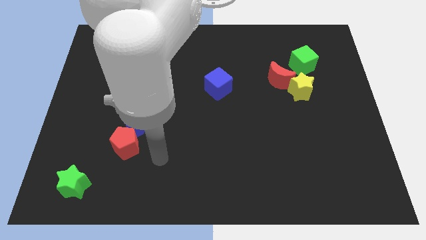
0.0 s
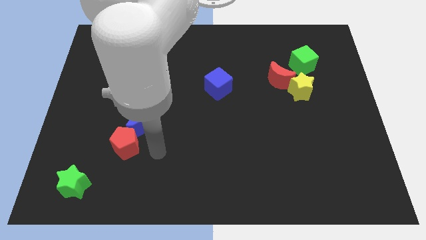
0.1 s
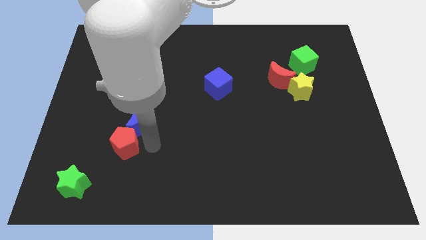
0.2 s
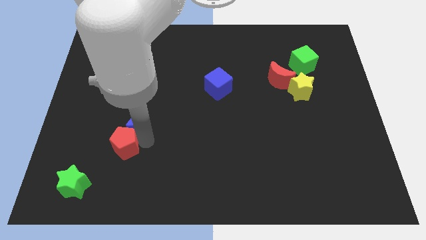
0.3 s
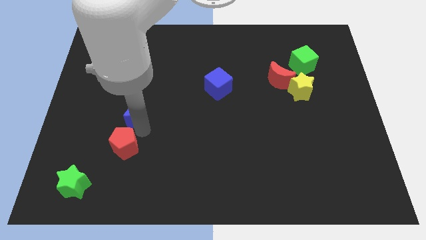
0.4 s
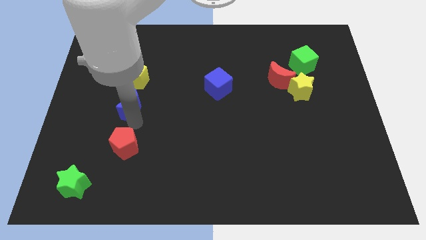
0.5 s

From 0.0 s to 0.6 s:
separate the red pentagon from the blue moon

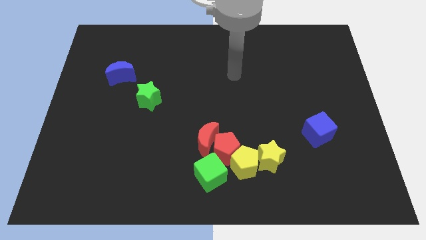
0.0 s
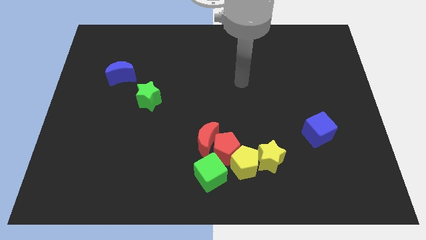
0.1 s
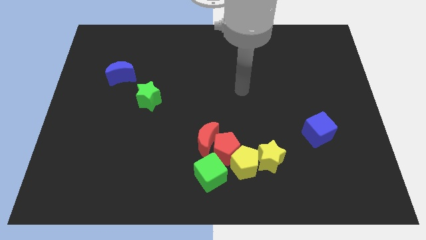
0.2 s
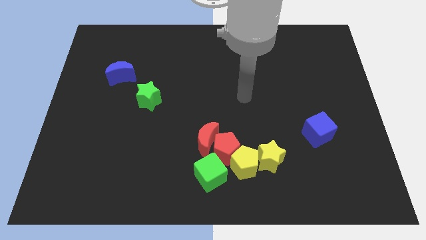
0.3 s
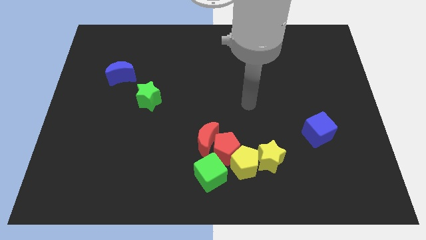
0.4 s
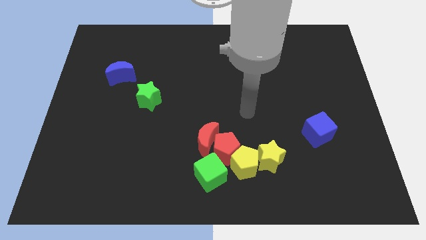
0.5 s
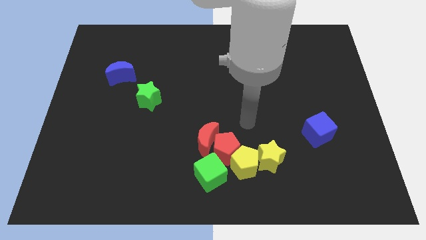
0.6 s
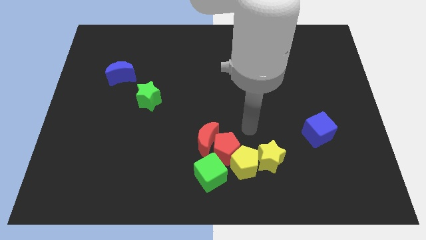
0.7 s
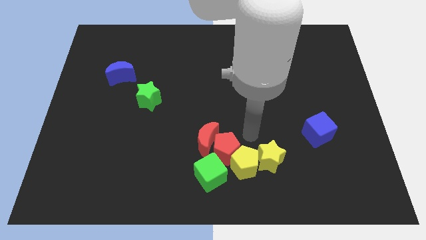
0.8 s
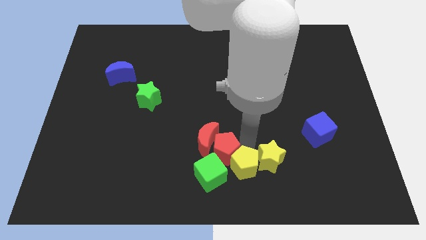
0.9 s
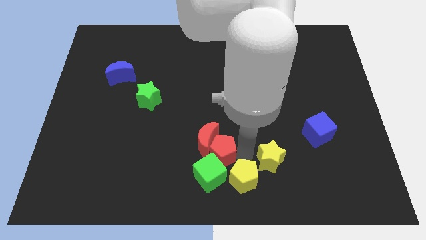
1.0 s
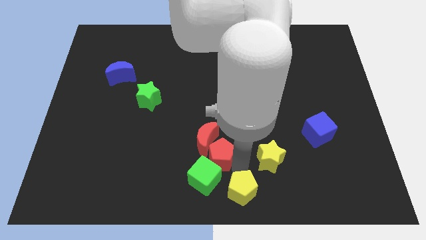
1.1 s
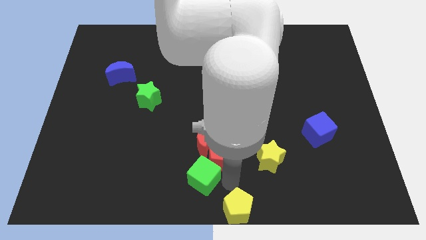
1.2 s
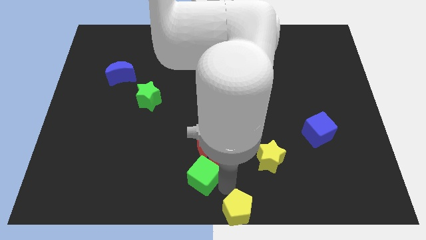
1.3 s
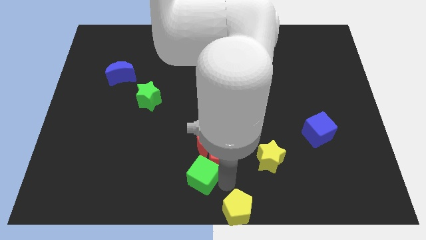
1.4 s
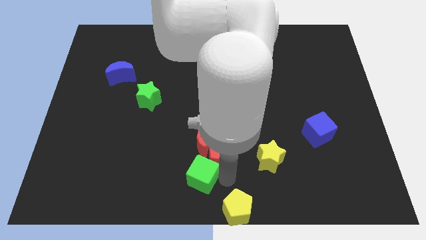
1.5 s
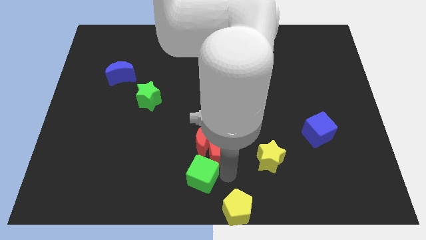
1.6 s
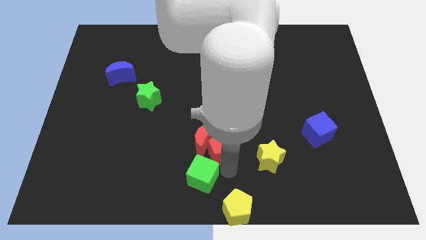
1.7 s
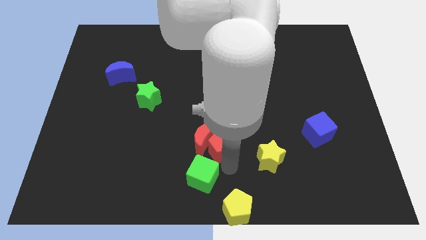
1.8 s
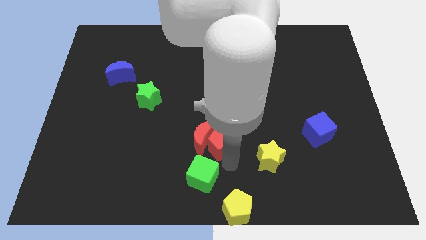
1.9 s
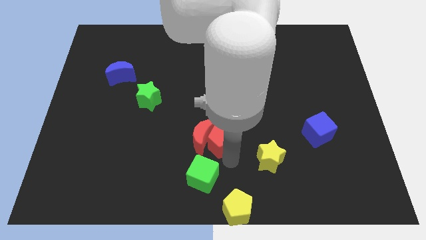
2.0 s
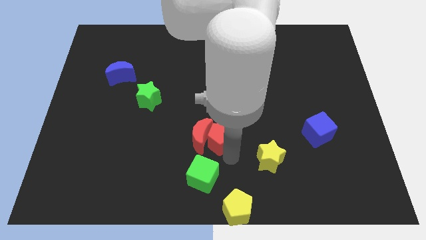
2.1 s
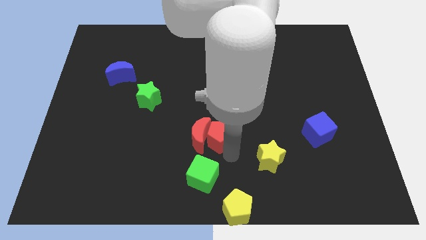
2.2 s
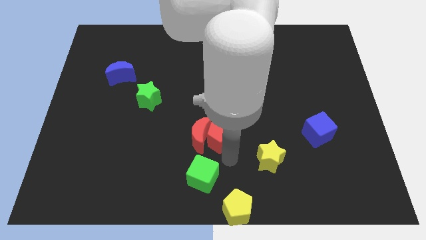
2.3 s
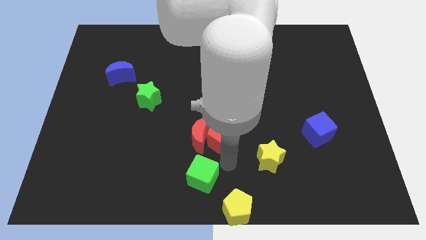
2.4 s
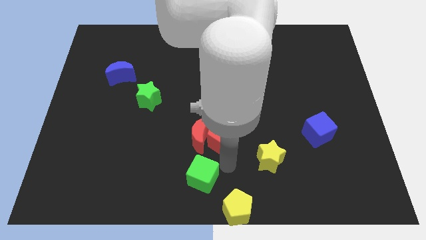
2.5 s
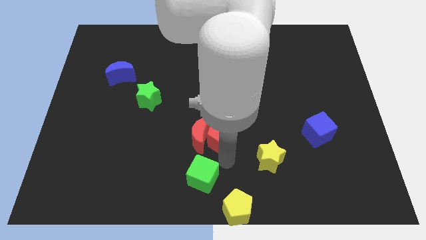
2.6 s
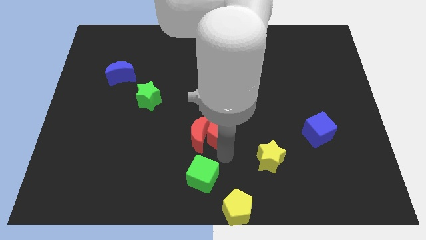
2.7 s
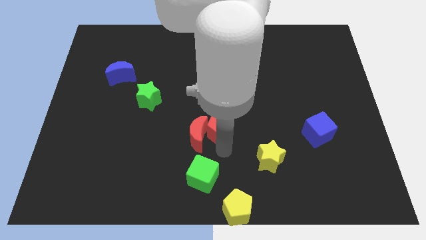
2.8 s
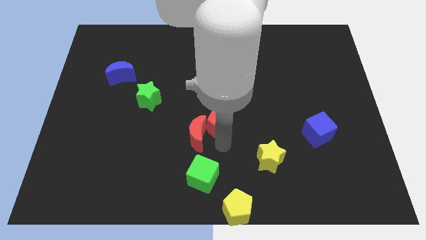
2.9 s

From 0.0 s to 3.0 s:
pull the red pentagon apart from the group of blocks

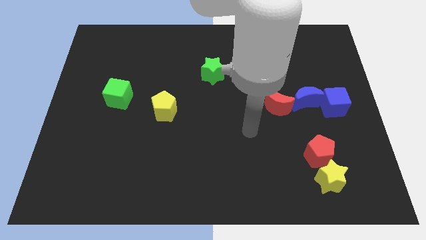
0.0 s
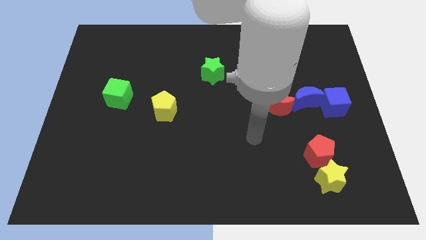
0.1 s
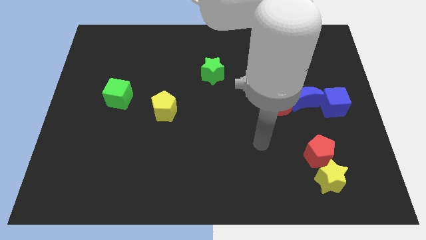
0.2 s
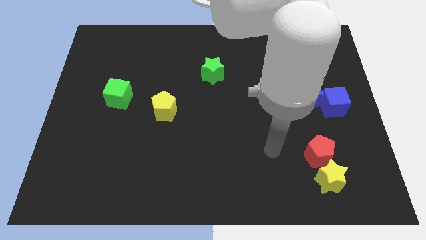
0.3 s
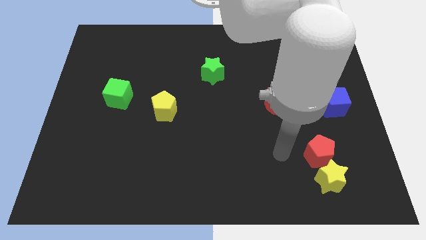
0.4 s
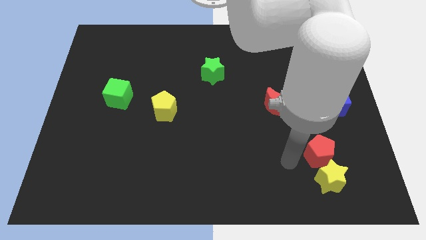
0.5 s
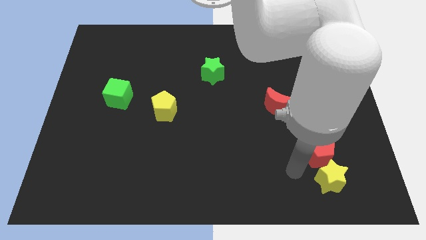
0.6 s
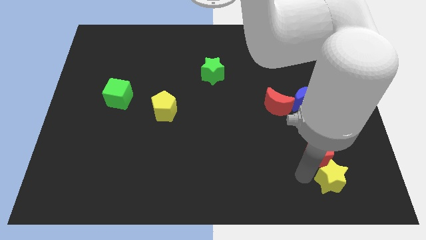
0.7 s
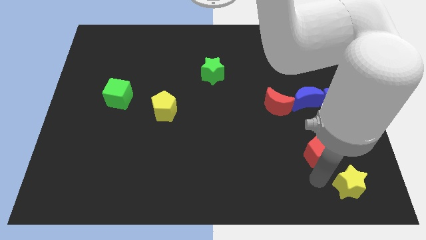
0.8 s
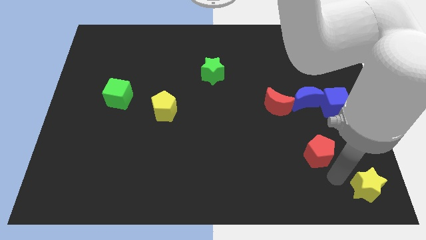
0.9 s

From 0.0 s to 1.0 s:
pull the red pentagon apart from the yellow star

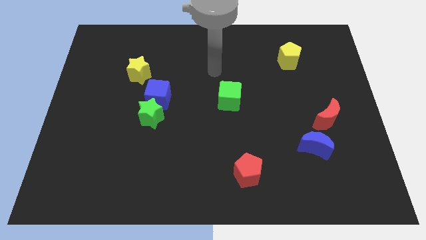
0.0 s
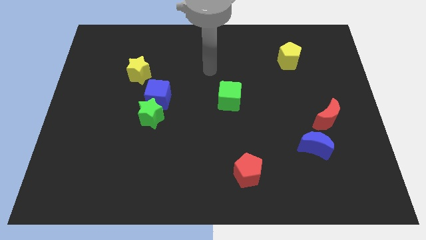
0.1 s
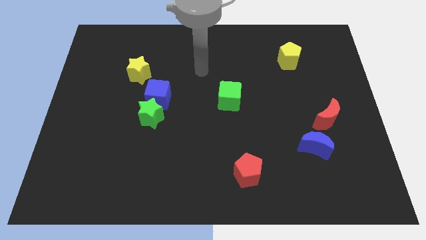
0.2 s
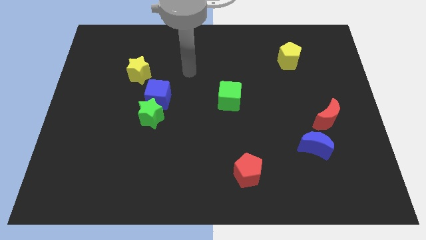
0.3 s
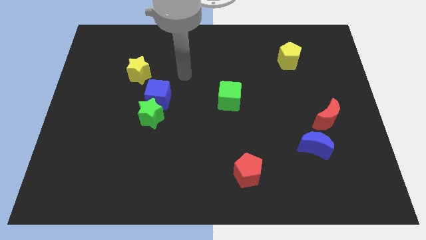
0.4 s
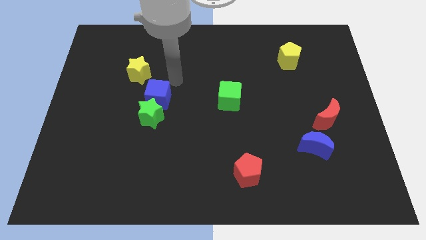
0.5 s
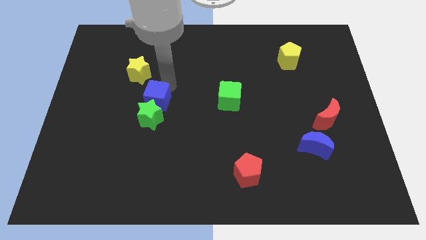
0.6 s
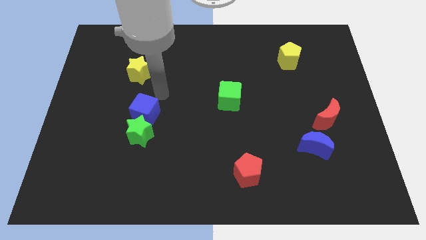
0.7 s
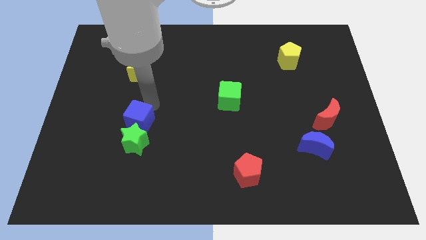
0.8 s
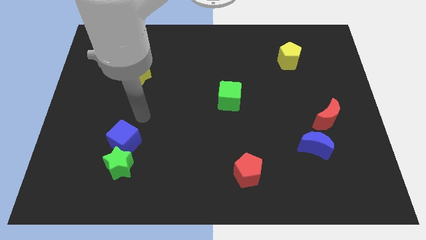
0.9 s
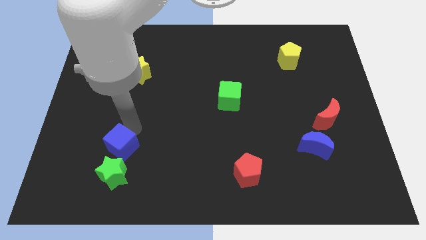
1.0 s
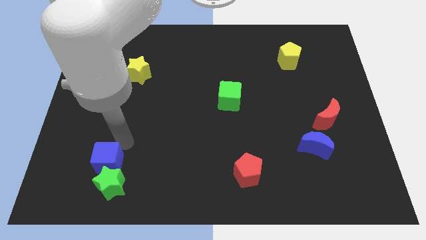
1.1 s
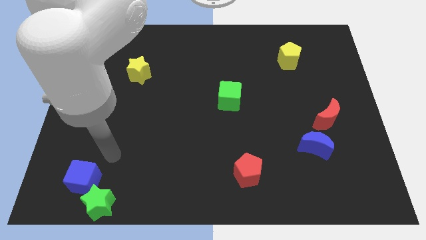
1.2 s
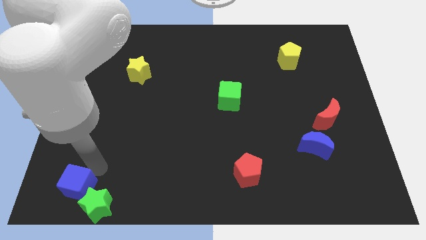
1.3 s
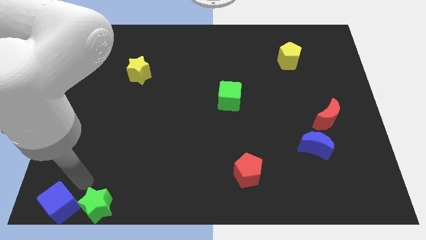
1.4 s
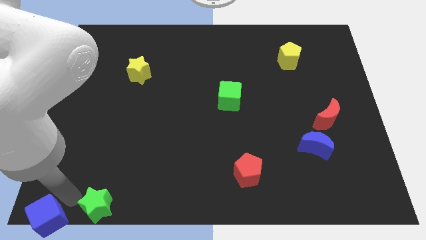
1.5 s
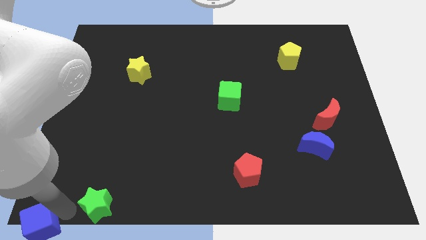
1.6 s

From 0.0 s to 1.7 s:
move the green star away from the blue cube

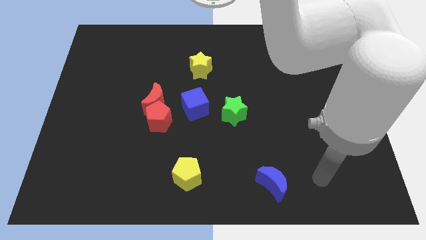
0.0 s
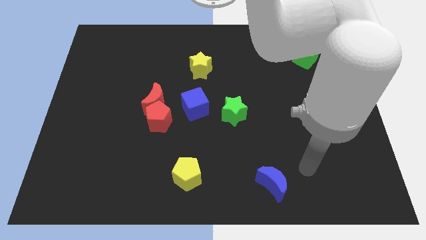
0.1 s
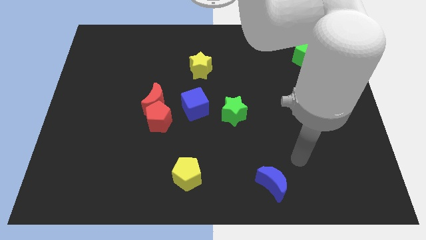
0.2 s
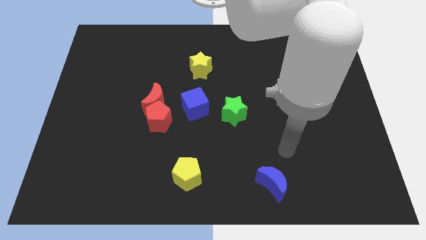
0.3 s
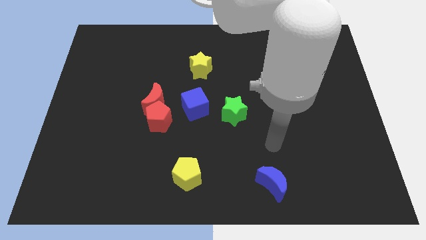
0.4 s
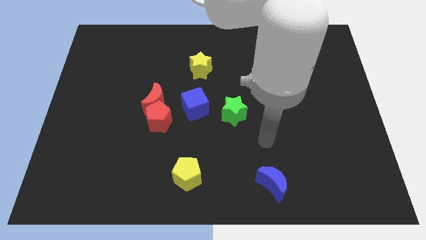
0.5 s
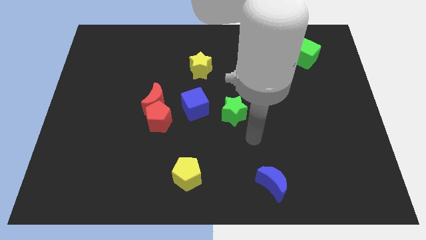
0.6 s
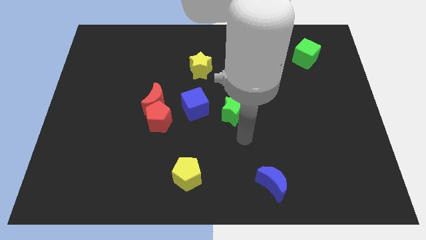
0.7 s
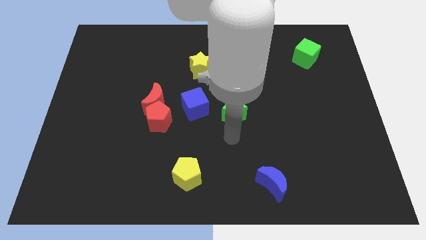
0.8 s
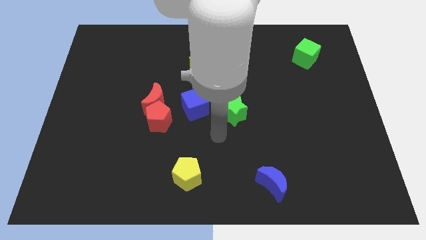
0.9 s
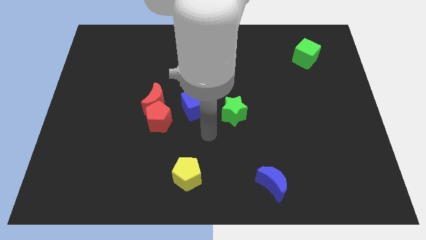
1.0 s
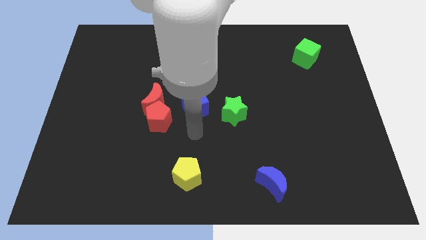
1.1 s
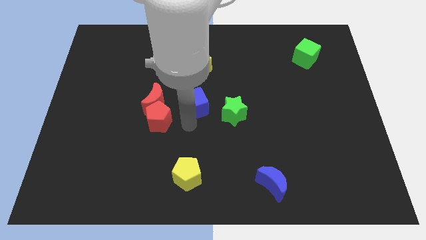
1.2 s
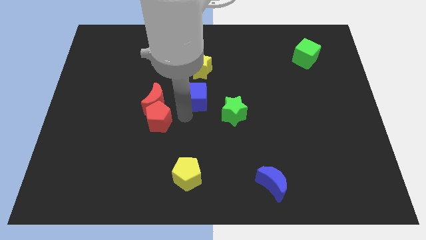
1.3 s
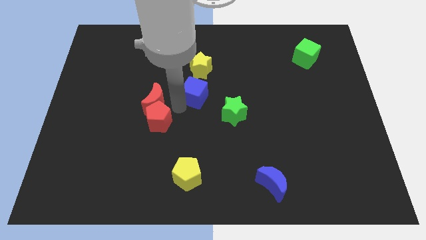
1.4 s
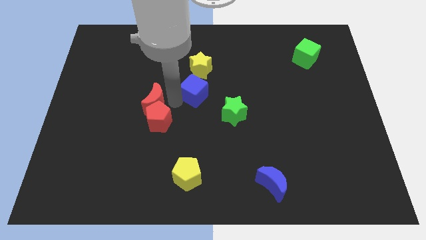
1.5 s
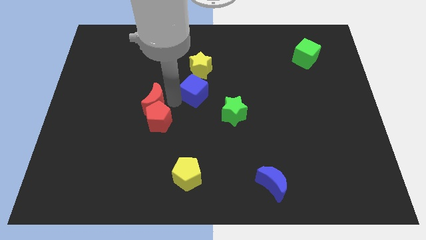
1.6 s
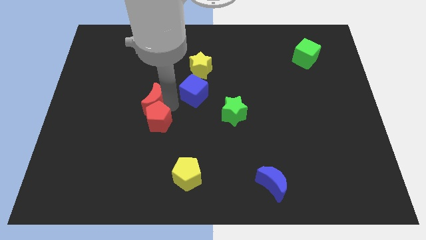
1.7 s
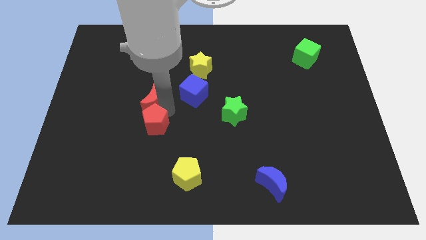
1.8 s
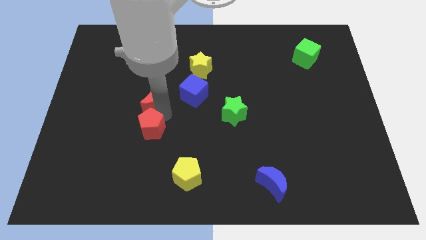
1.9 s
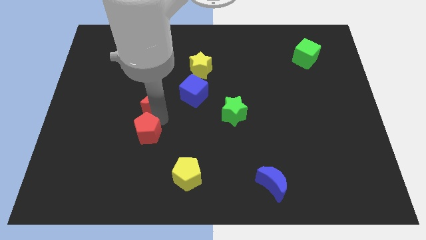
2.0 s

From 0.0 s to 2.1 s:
pull the red pentagon apart from the red moon and blue cube

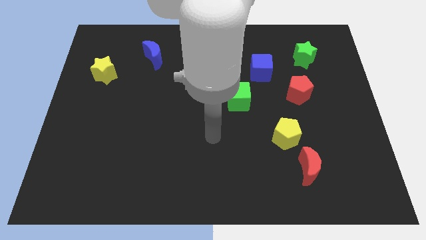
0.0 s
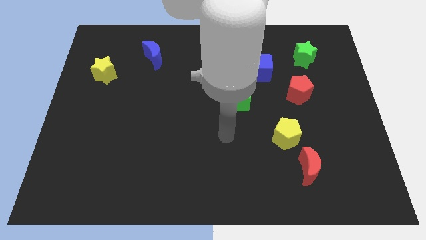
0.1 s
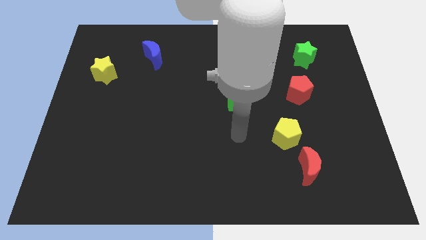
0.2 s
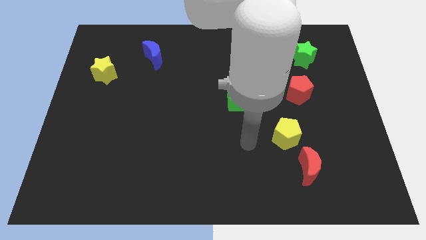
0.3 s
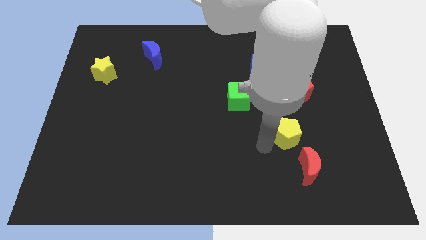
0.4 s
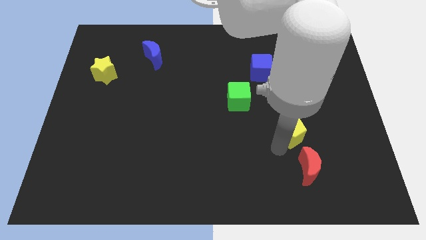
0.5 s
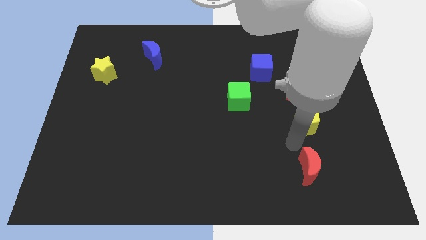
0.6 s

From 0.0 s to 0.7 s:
separate the red moon from the yellow pentagon

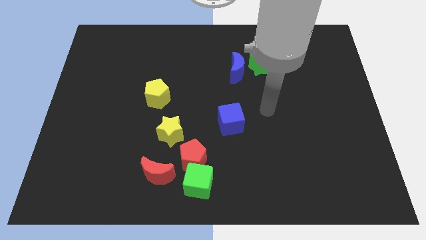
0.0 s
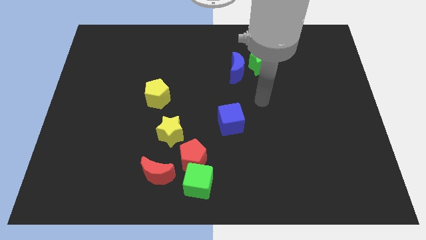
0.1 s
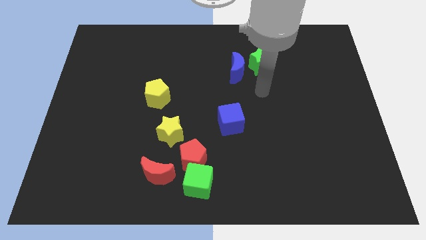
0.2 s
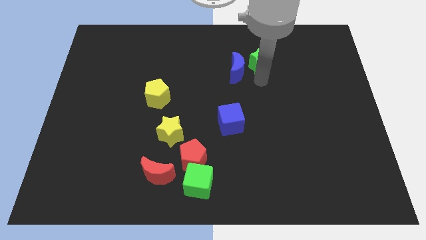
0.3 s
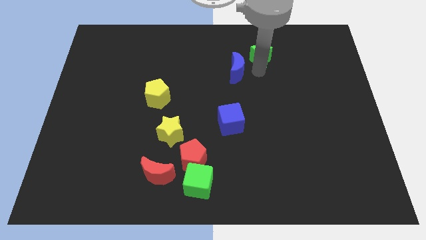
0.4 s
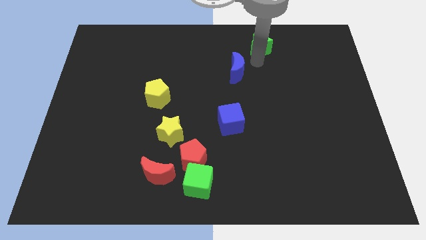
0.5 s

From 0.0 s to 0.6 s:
separate the blue moon from the green star
